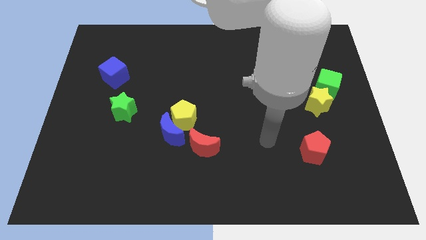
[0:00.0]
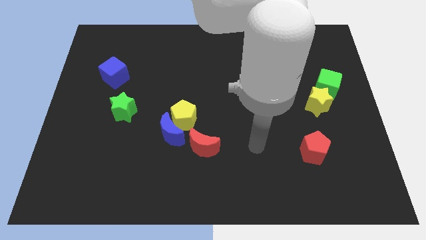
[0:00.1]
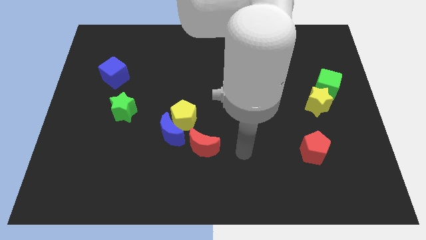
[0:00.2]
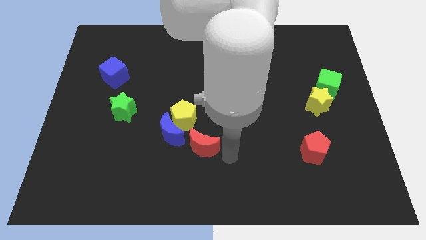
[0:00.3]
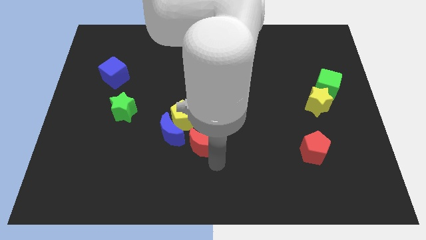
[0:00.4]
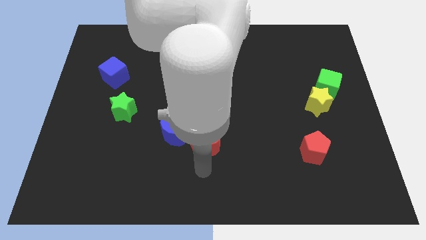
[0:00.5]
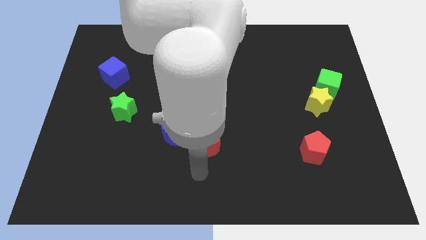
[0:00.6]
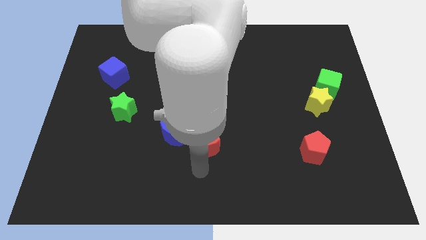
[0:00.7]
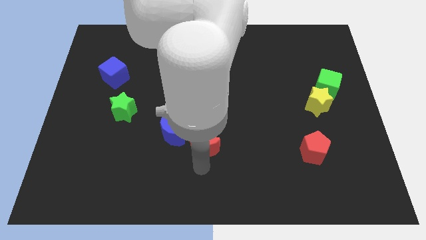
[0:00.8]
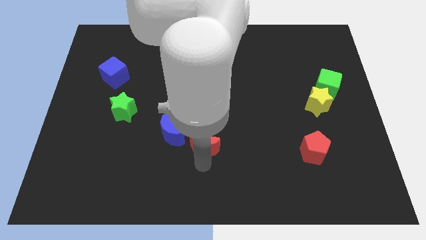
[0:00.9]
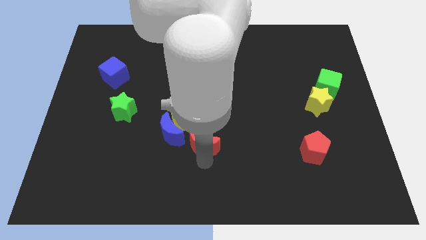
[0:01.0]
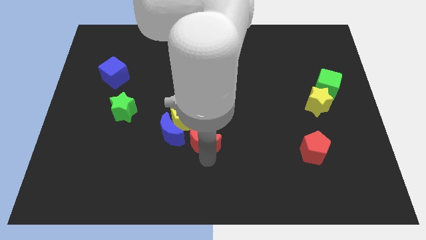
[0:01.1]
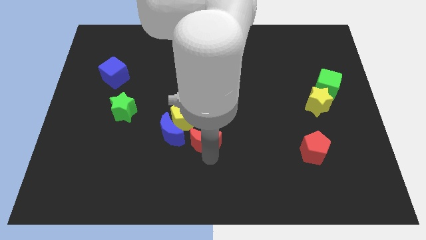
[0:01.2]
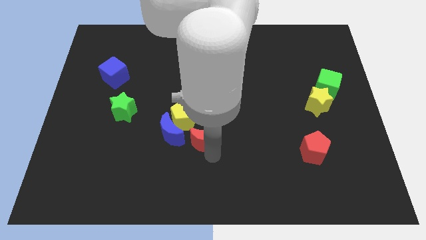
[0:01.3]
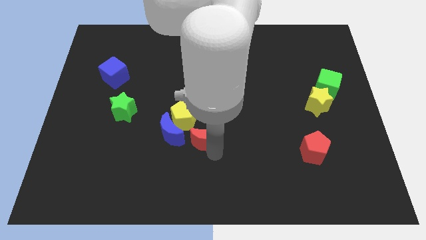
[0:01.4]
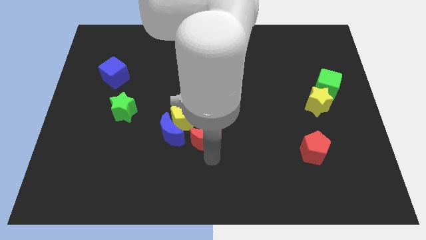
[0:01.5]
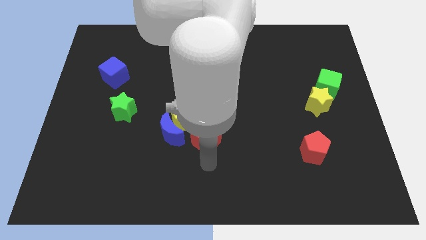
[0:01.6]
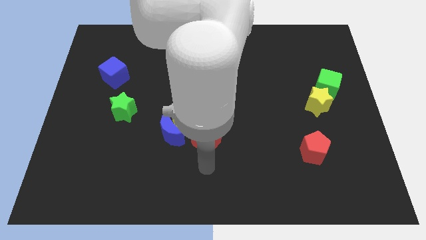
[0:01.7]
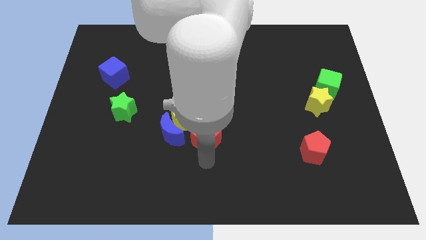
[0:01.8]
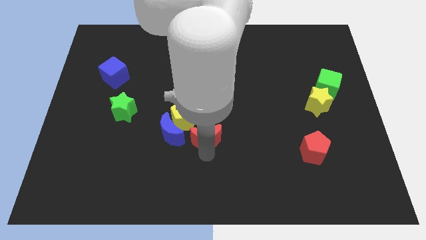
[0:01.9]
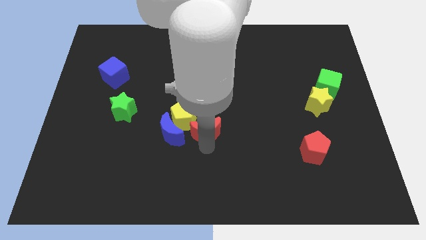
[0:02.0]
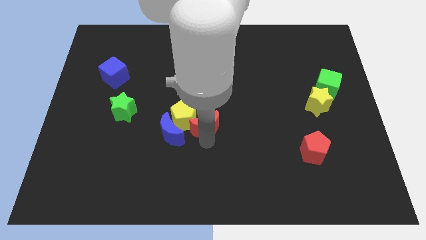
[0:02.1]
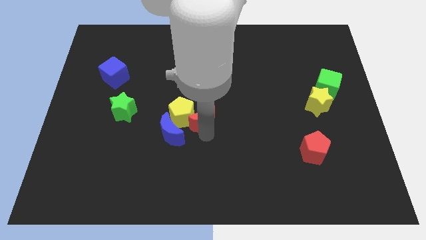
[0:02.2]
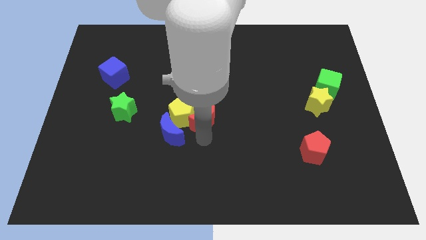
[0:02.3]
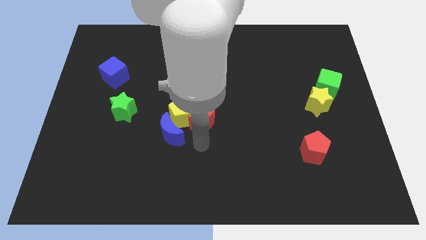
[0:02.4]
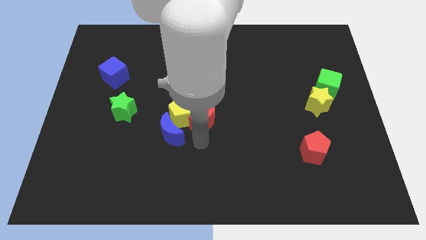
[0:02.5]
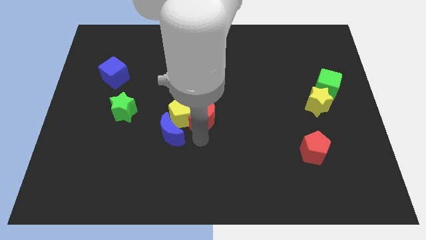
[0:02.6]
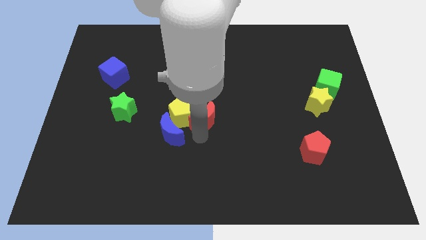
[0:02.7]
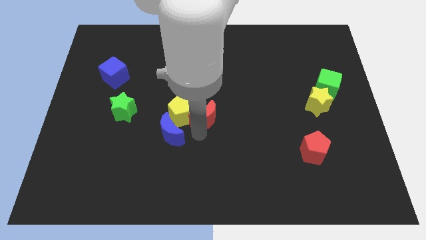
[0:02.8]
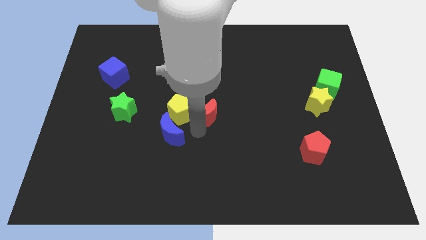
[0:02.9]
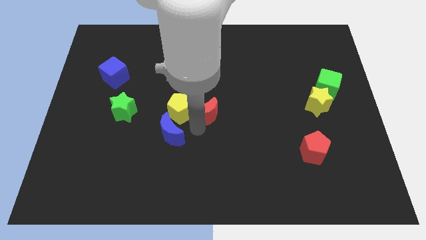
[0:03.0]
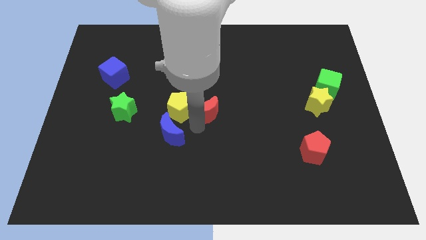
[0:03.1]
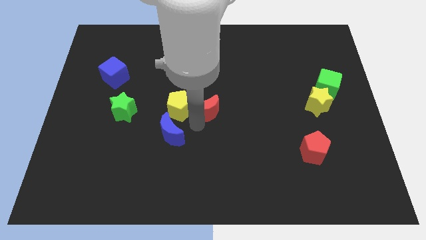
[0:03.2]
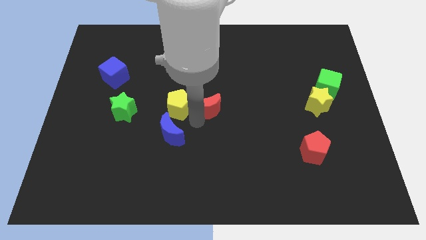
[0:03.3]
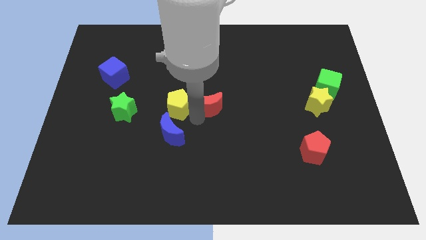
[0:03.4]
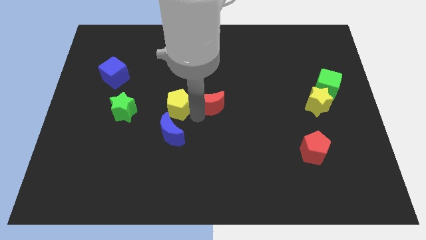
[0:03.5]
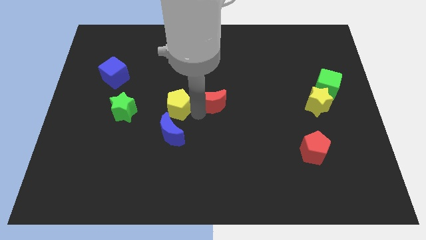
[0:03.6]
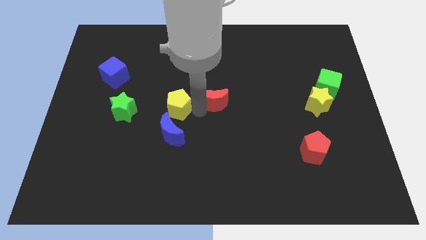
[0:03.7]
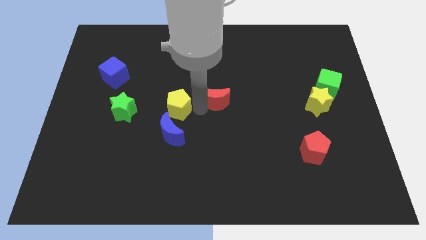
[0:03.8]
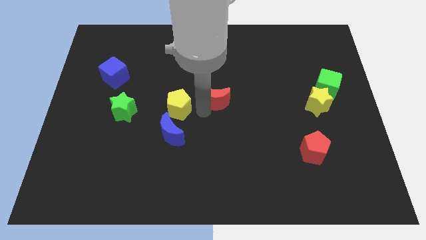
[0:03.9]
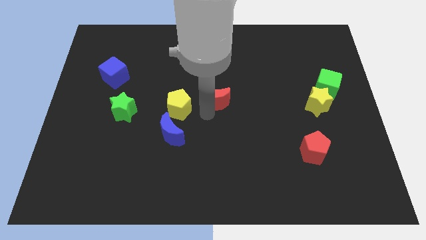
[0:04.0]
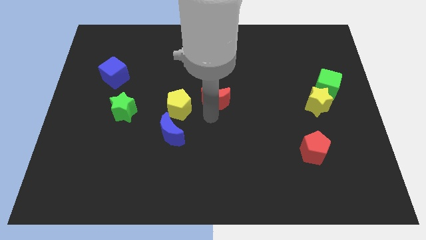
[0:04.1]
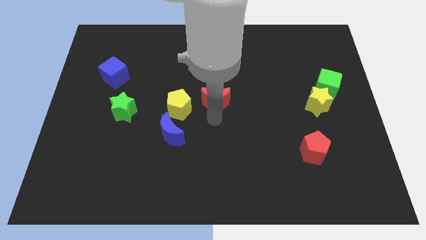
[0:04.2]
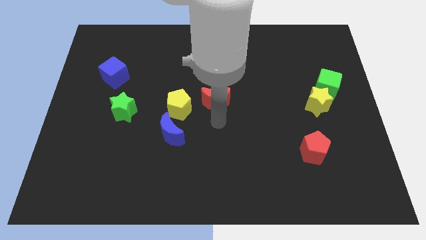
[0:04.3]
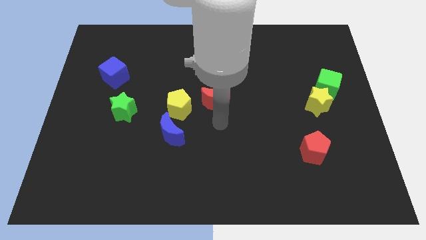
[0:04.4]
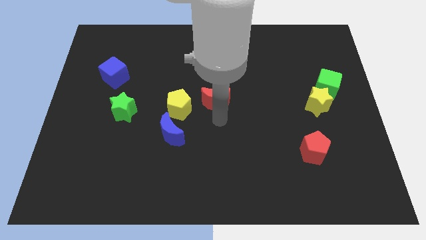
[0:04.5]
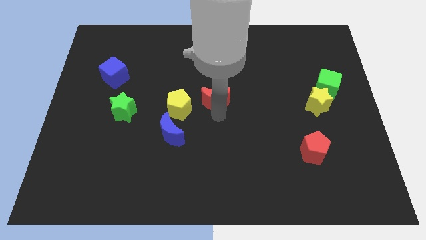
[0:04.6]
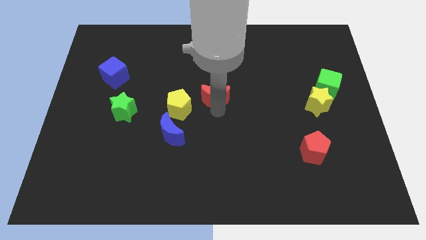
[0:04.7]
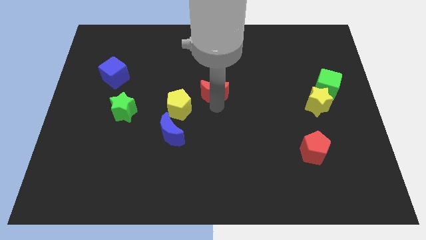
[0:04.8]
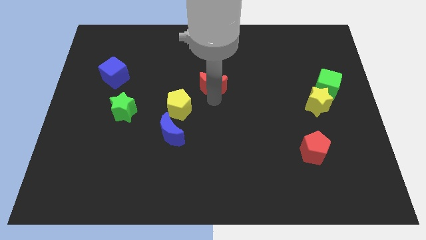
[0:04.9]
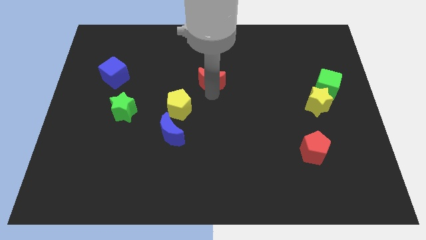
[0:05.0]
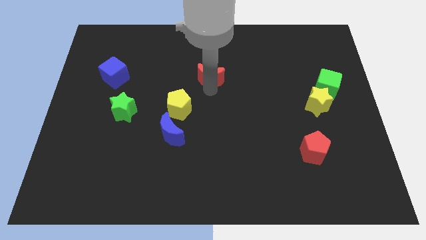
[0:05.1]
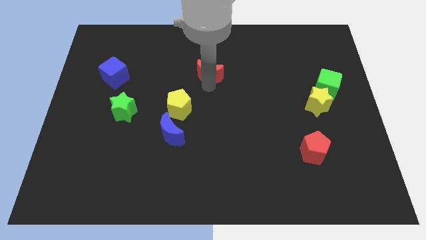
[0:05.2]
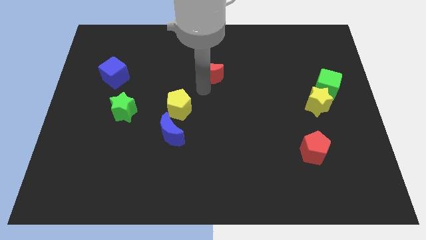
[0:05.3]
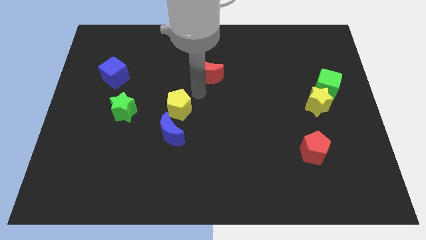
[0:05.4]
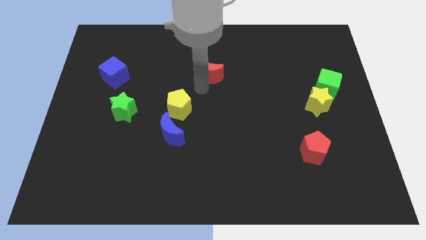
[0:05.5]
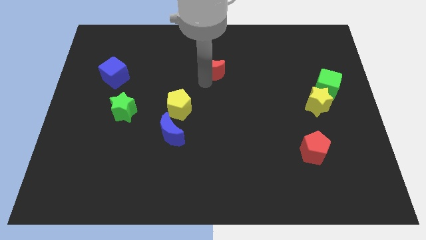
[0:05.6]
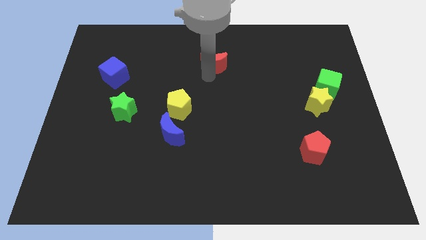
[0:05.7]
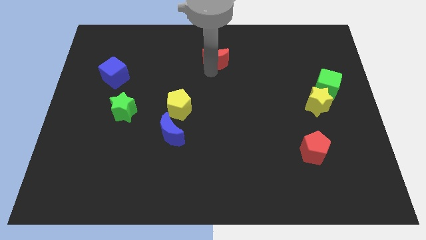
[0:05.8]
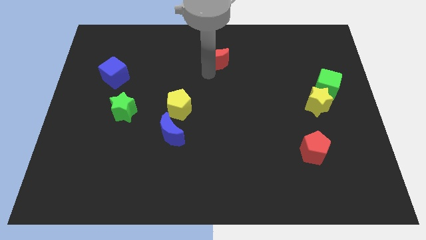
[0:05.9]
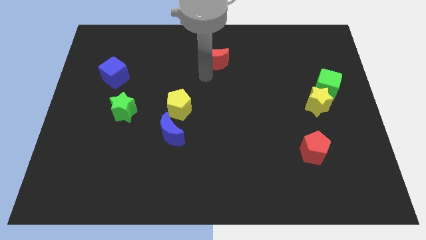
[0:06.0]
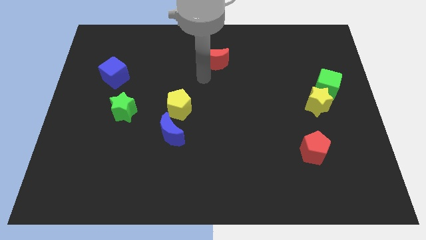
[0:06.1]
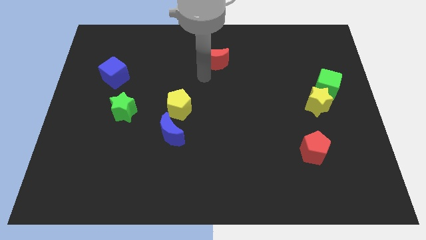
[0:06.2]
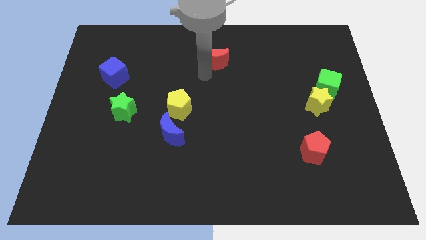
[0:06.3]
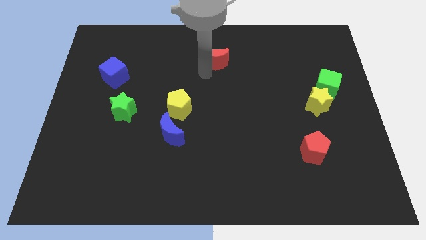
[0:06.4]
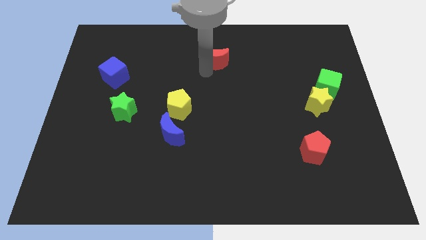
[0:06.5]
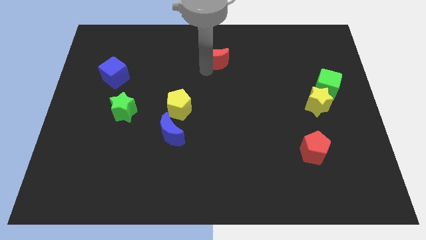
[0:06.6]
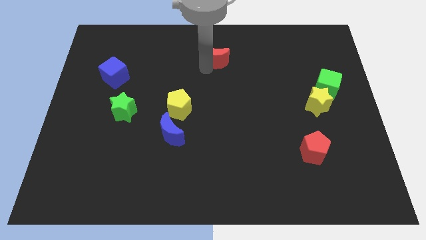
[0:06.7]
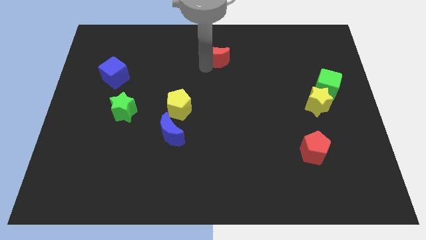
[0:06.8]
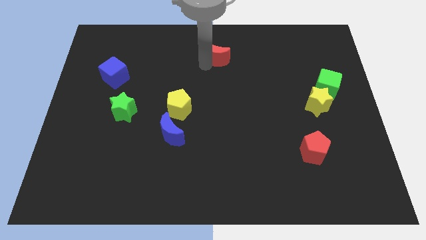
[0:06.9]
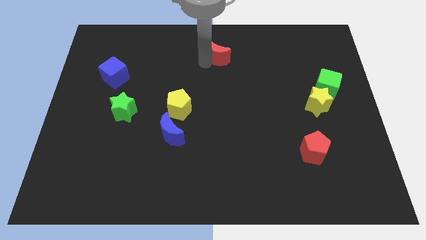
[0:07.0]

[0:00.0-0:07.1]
put the red moon to the top
